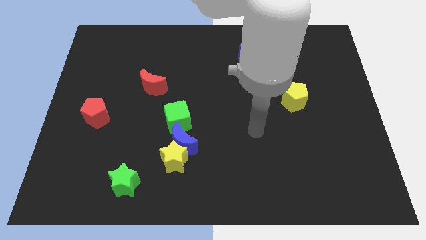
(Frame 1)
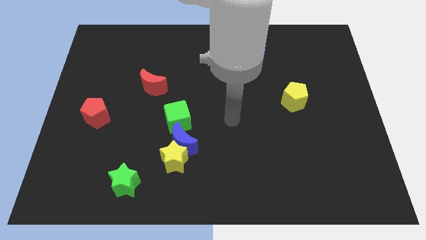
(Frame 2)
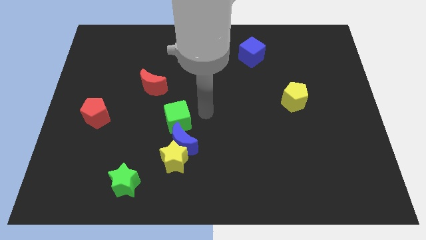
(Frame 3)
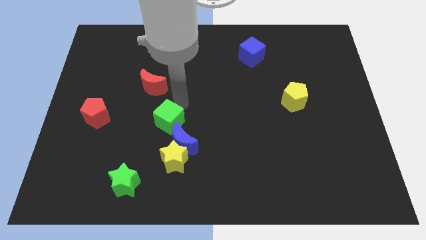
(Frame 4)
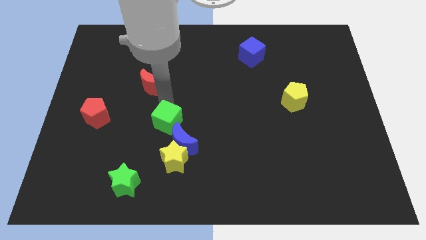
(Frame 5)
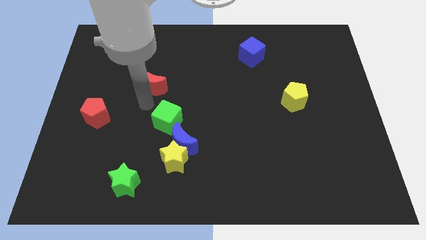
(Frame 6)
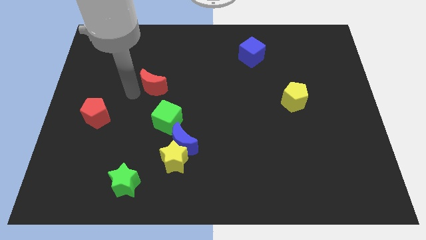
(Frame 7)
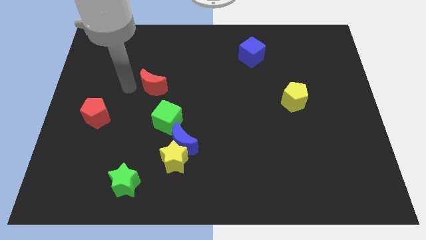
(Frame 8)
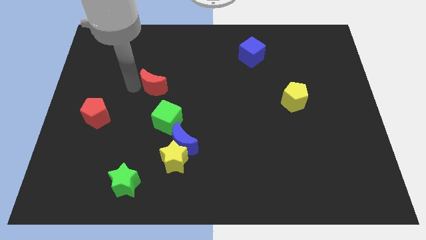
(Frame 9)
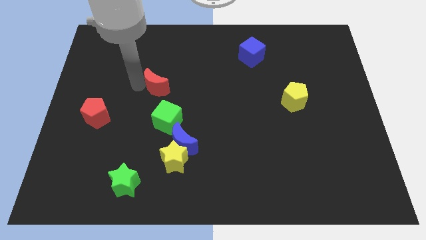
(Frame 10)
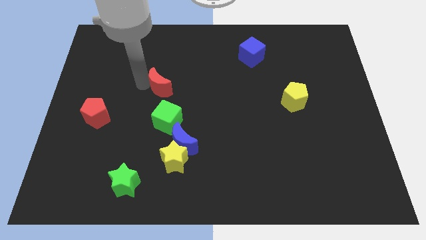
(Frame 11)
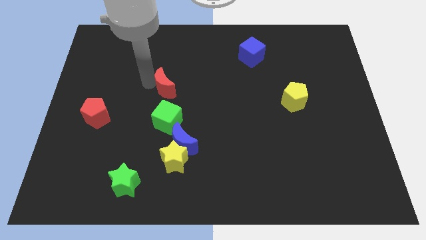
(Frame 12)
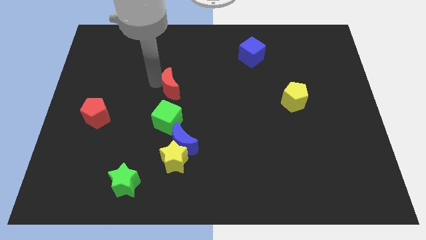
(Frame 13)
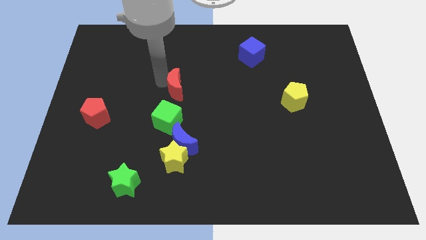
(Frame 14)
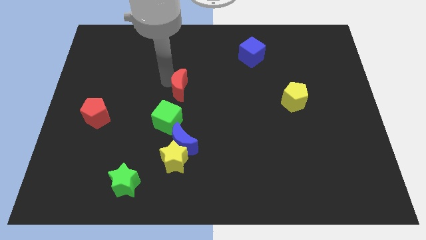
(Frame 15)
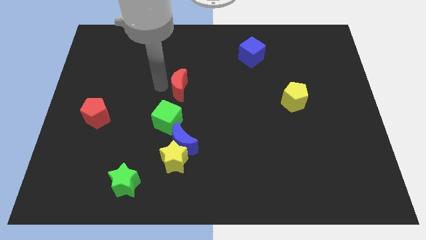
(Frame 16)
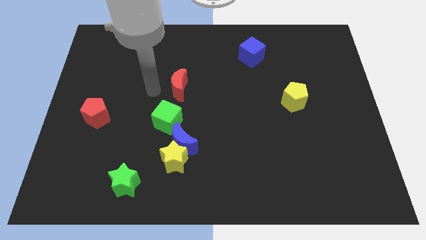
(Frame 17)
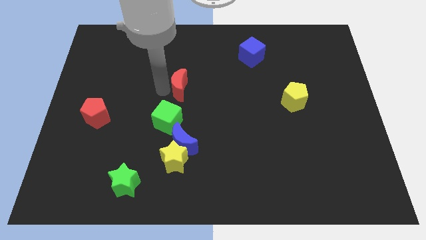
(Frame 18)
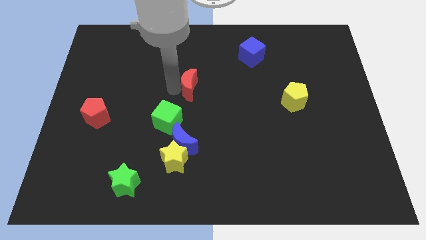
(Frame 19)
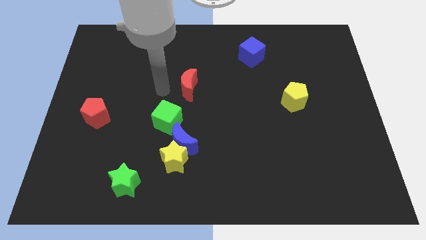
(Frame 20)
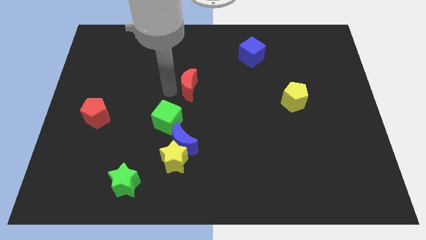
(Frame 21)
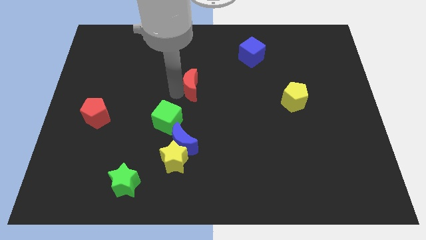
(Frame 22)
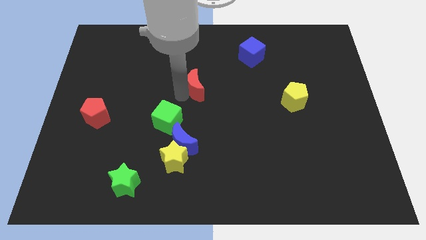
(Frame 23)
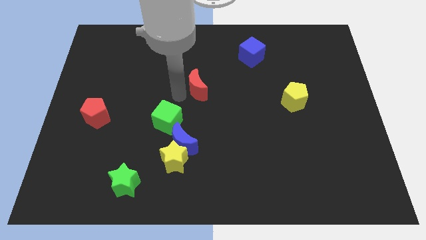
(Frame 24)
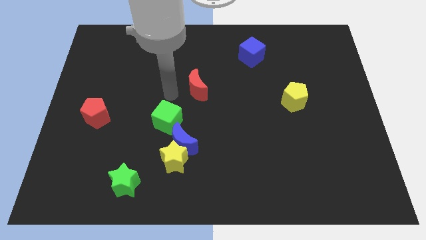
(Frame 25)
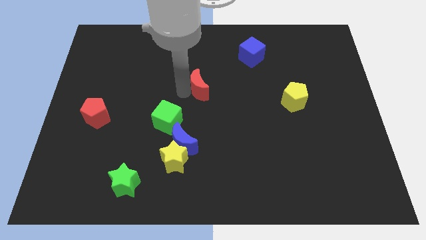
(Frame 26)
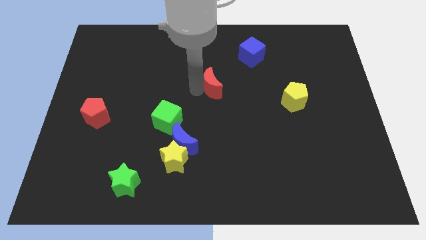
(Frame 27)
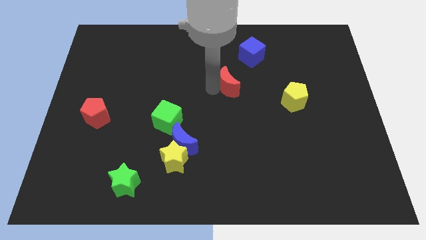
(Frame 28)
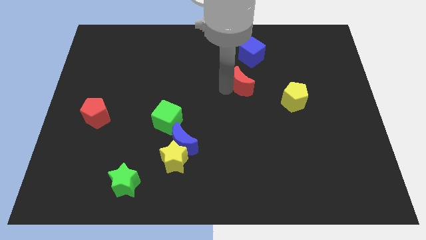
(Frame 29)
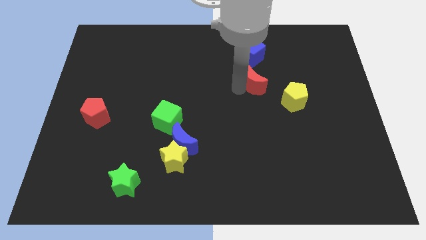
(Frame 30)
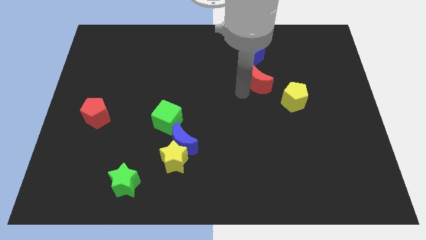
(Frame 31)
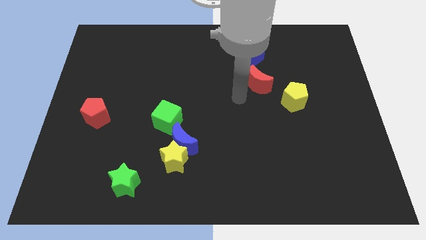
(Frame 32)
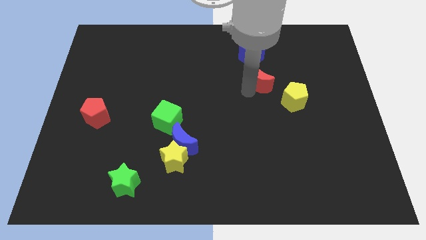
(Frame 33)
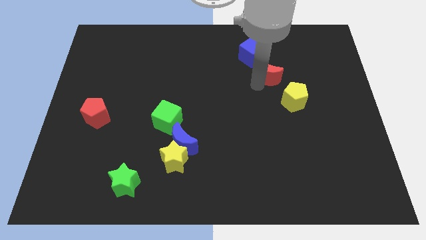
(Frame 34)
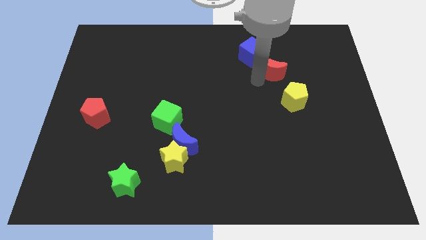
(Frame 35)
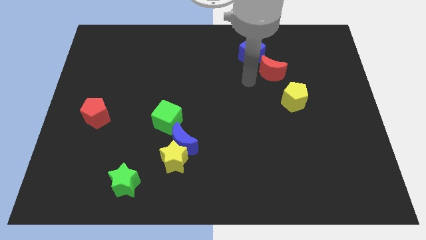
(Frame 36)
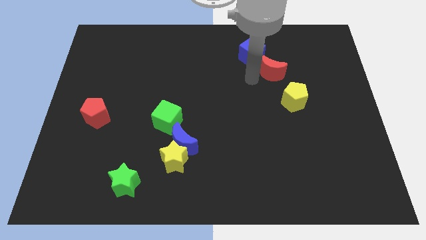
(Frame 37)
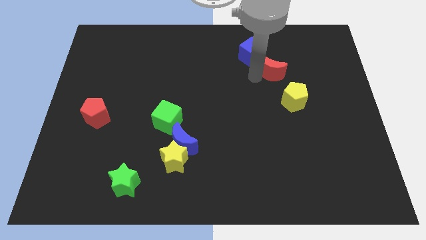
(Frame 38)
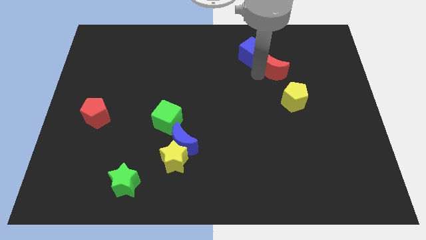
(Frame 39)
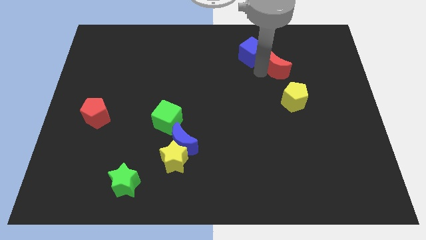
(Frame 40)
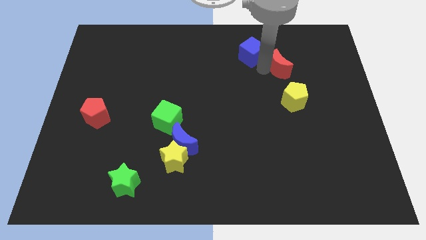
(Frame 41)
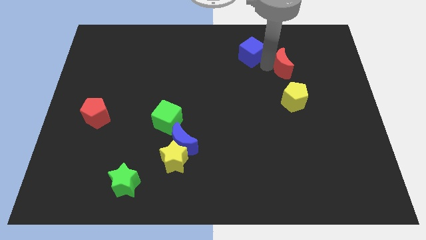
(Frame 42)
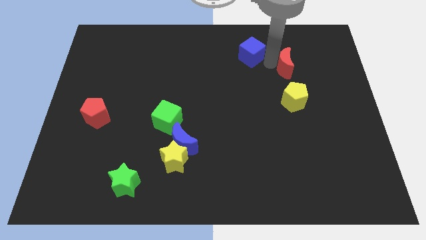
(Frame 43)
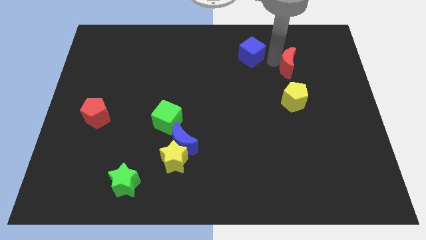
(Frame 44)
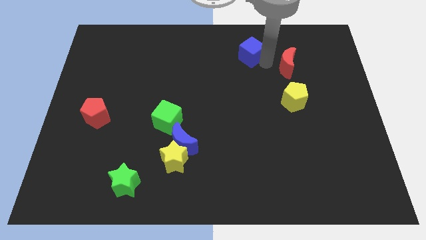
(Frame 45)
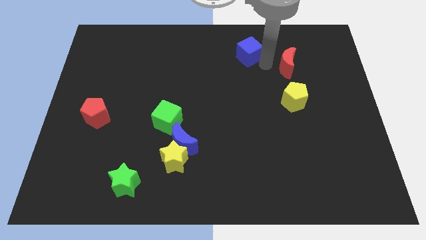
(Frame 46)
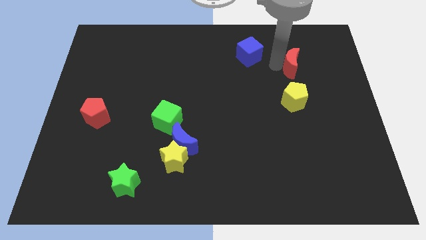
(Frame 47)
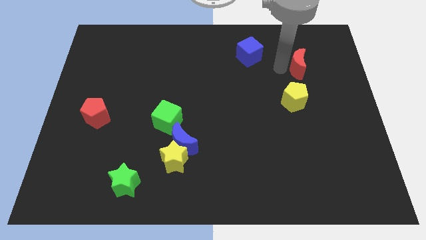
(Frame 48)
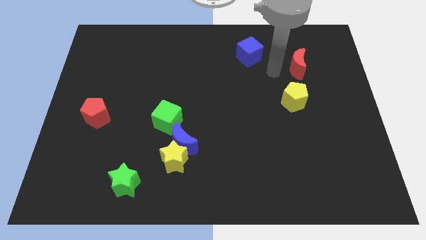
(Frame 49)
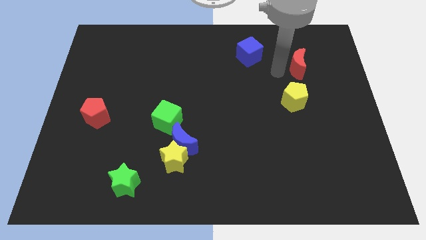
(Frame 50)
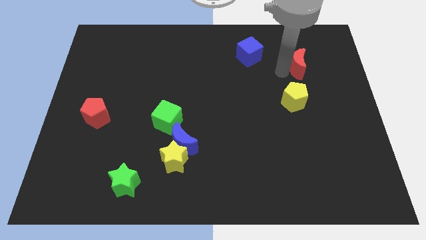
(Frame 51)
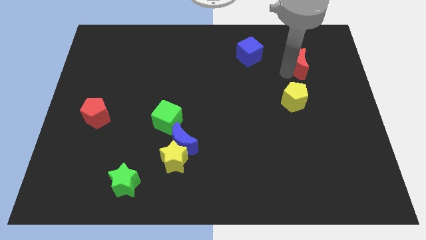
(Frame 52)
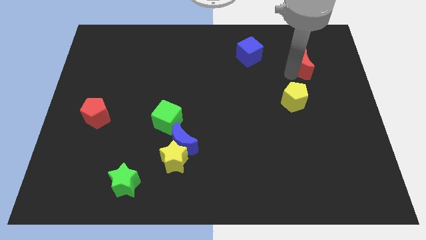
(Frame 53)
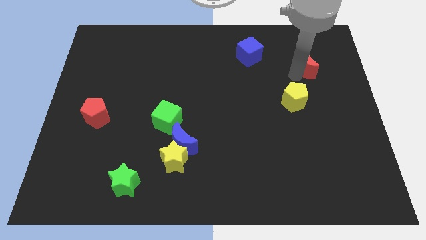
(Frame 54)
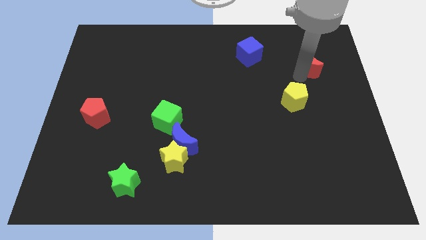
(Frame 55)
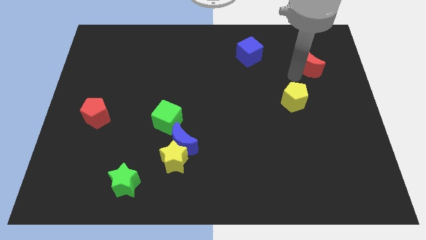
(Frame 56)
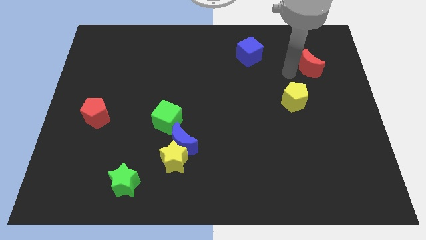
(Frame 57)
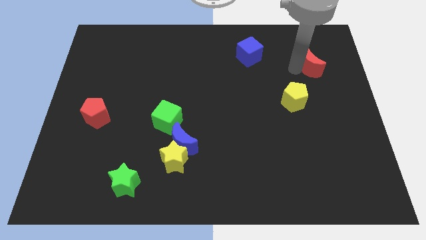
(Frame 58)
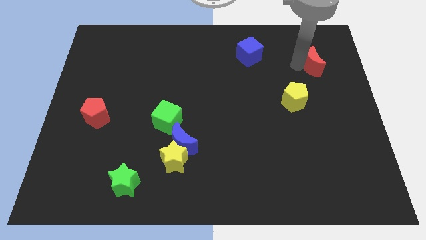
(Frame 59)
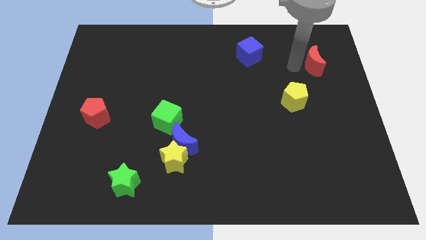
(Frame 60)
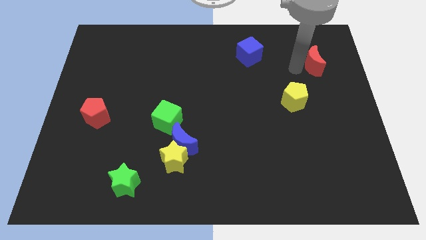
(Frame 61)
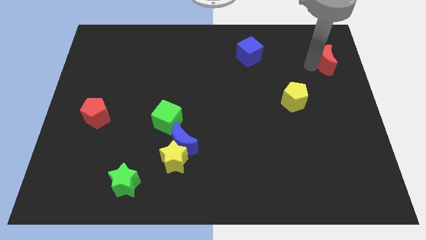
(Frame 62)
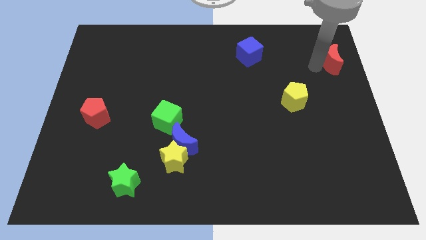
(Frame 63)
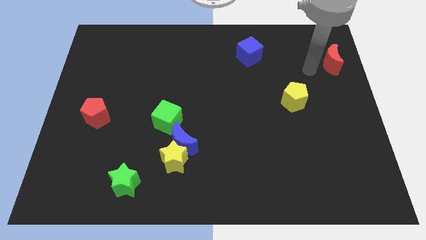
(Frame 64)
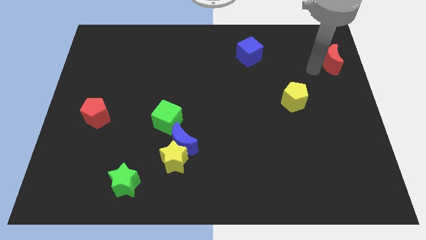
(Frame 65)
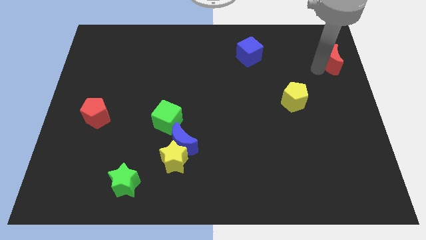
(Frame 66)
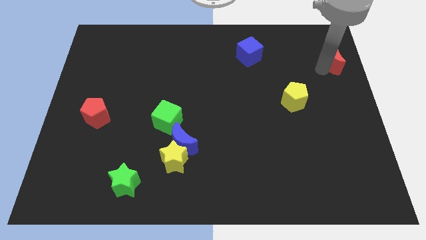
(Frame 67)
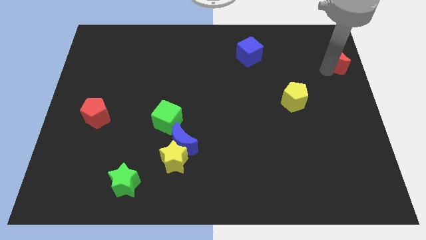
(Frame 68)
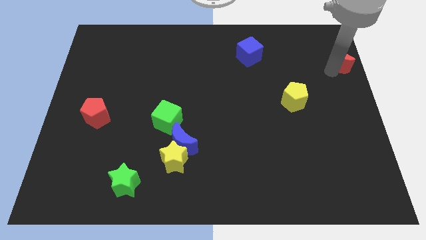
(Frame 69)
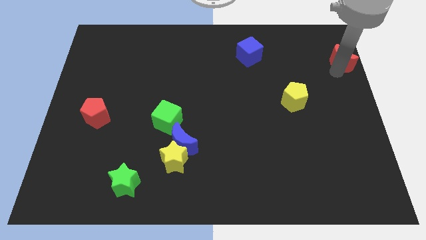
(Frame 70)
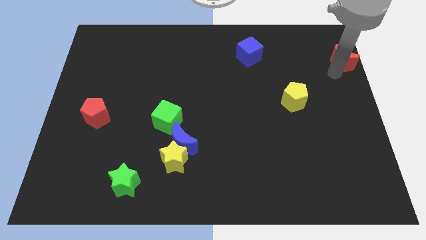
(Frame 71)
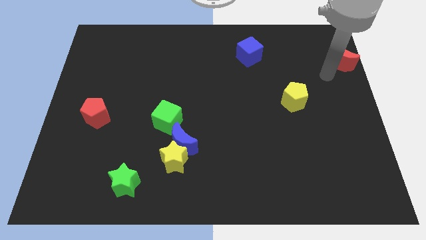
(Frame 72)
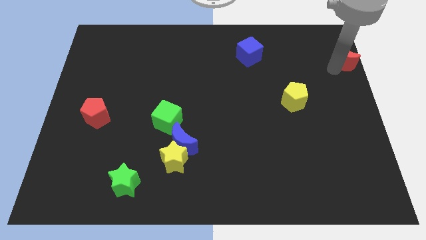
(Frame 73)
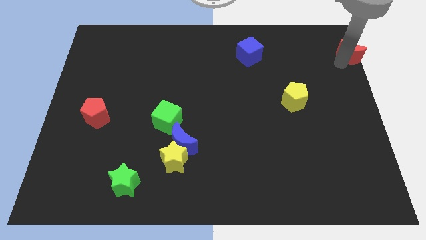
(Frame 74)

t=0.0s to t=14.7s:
put the red moon to the top right of the board
